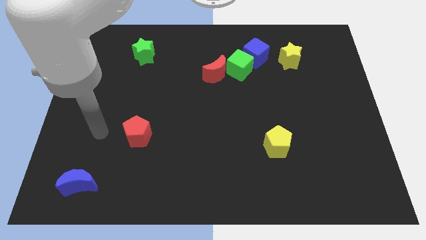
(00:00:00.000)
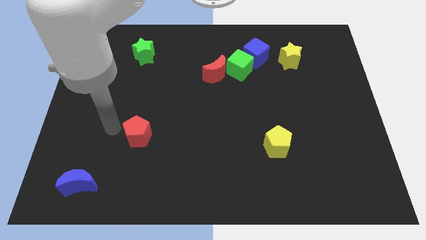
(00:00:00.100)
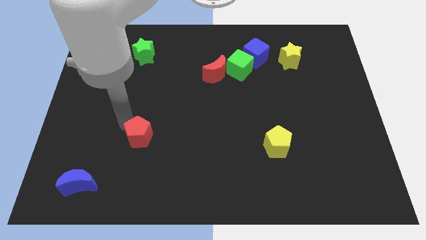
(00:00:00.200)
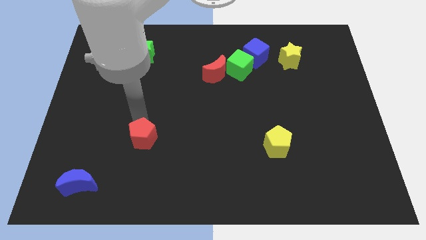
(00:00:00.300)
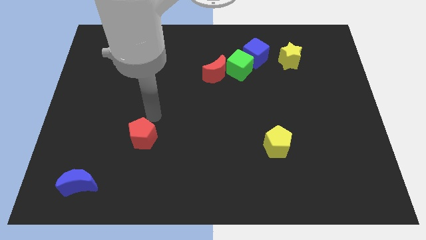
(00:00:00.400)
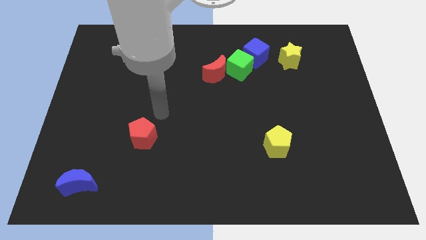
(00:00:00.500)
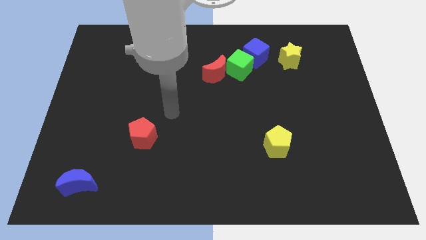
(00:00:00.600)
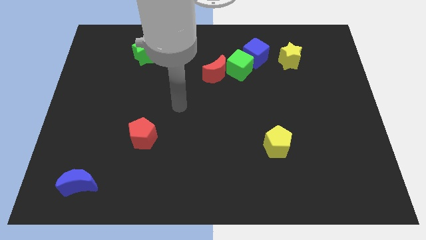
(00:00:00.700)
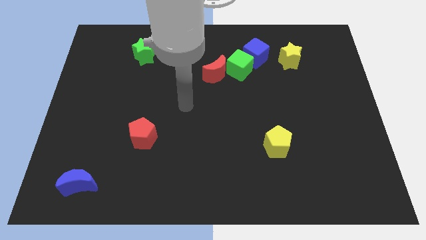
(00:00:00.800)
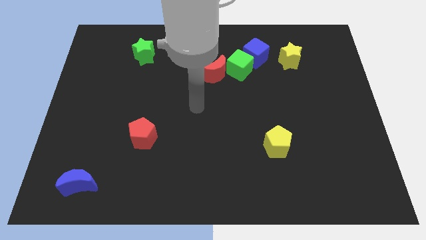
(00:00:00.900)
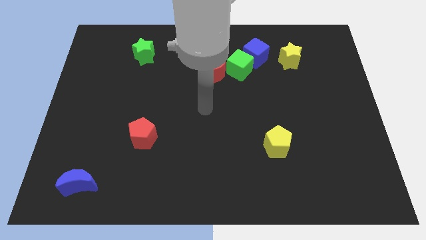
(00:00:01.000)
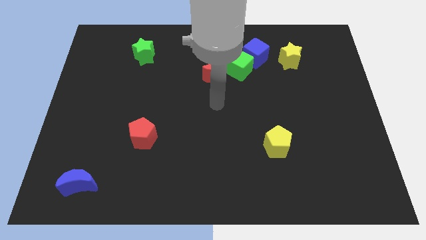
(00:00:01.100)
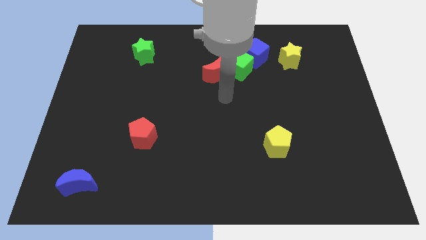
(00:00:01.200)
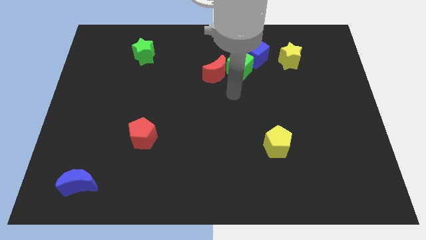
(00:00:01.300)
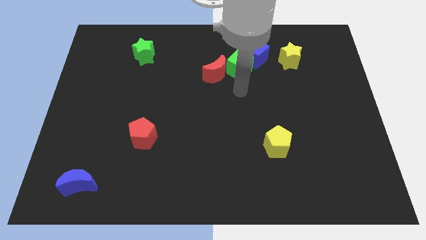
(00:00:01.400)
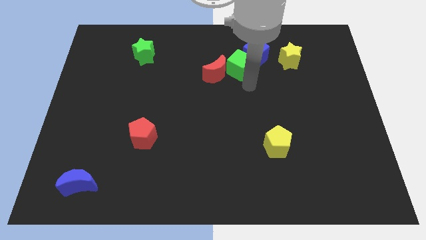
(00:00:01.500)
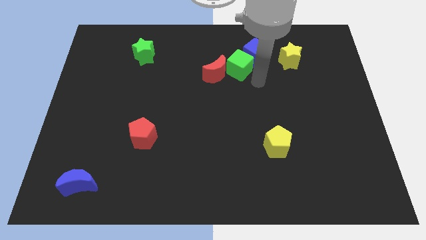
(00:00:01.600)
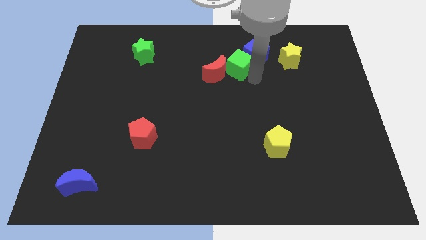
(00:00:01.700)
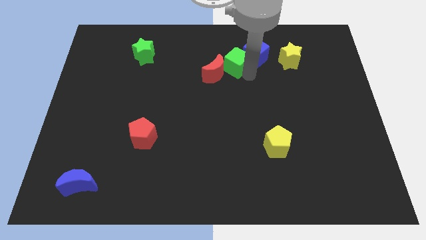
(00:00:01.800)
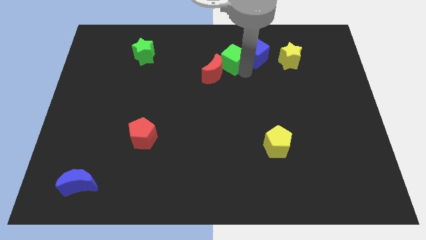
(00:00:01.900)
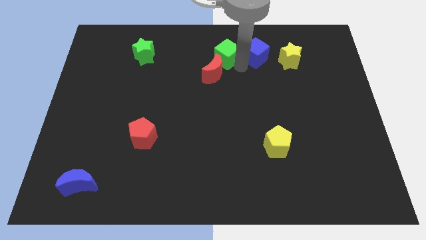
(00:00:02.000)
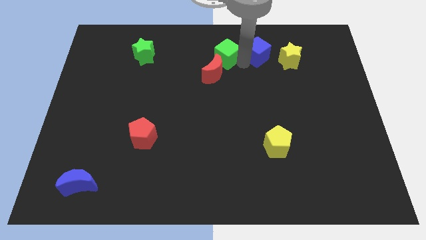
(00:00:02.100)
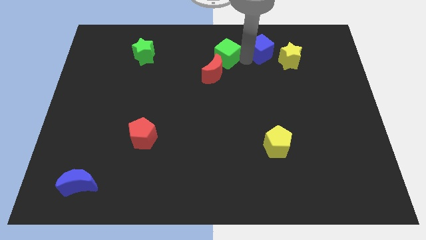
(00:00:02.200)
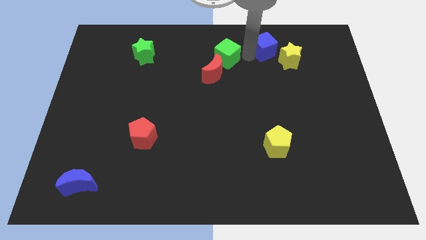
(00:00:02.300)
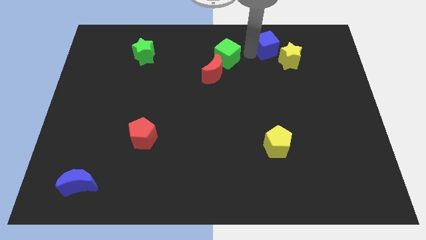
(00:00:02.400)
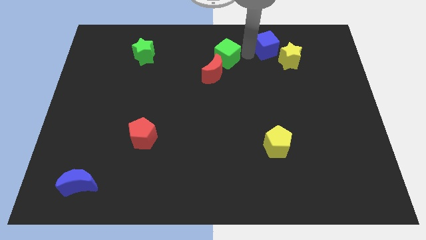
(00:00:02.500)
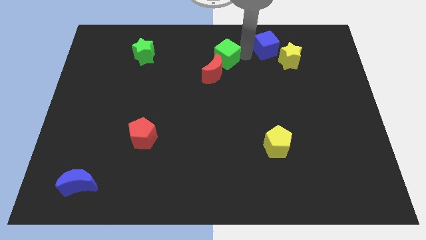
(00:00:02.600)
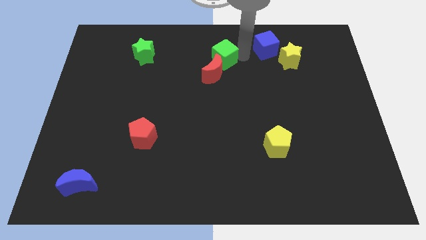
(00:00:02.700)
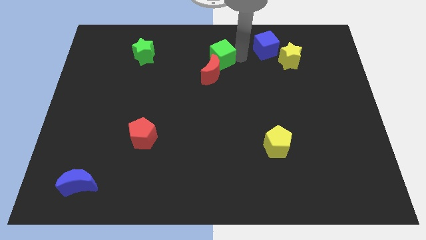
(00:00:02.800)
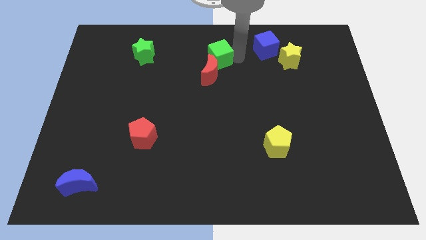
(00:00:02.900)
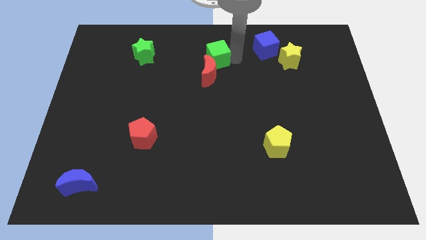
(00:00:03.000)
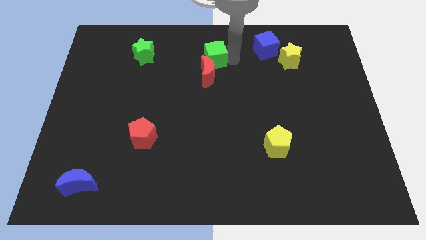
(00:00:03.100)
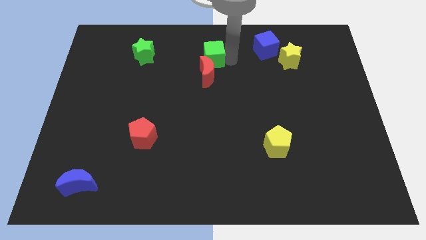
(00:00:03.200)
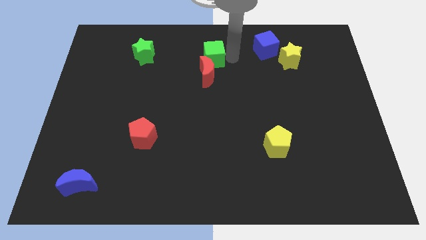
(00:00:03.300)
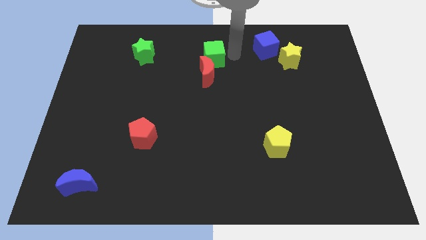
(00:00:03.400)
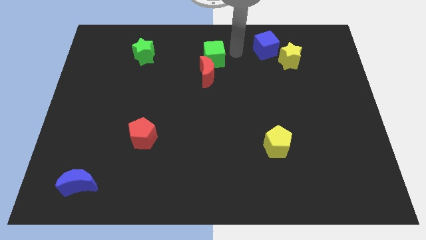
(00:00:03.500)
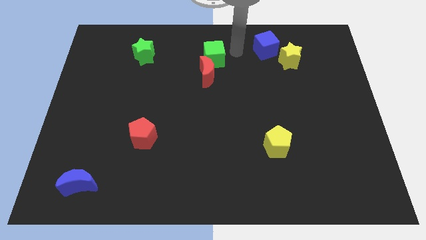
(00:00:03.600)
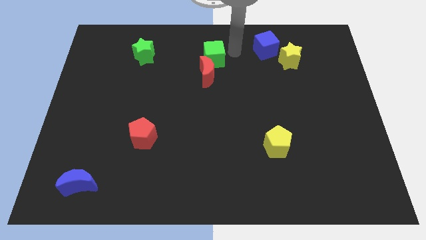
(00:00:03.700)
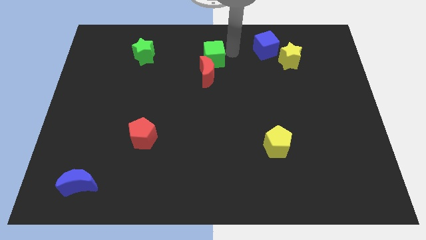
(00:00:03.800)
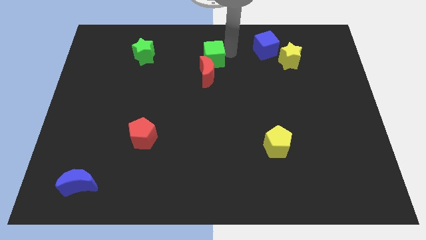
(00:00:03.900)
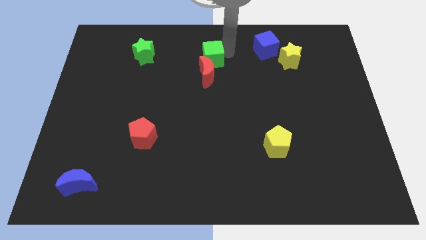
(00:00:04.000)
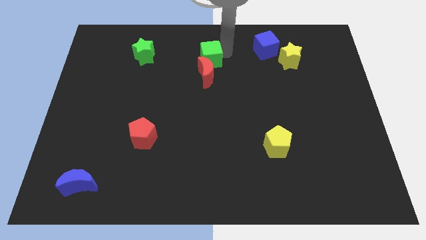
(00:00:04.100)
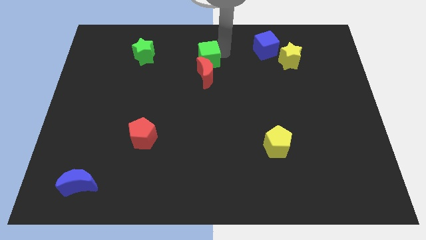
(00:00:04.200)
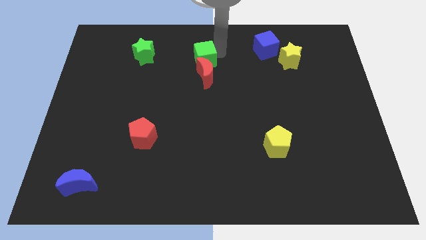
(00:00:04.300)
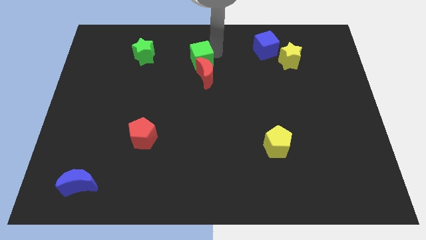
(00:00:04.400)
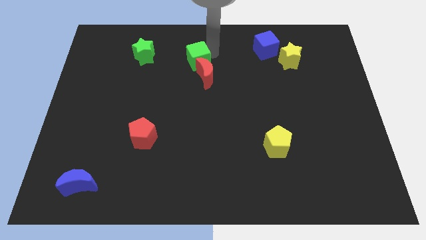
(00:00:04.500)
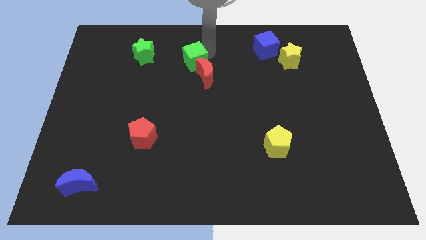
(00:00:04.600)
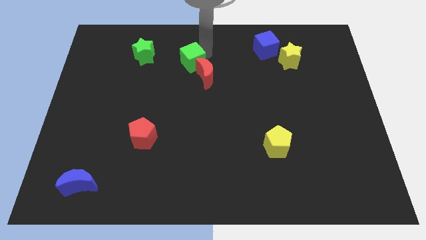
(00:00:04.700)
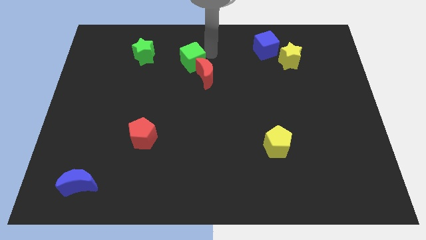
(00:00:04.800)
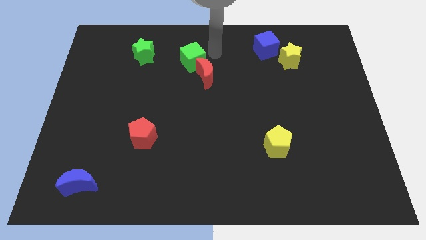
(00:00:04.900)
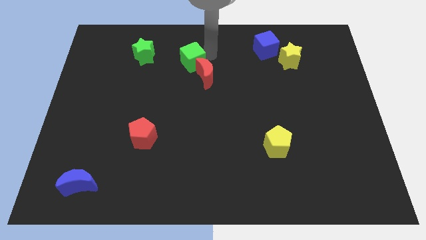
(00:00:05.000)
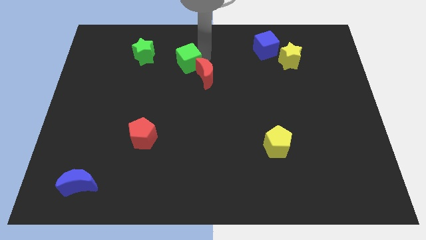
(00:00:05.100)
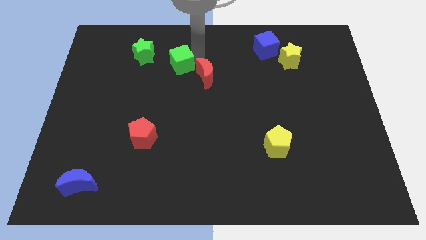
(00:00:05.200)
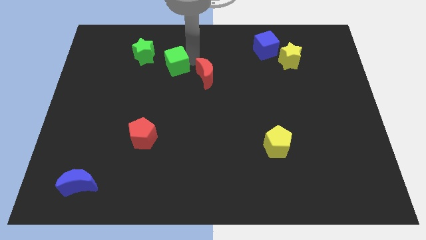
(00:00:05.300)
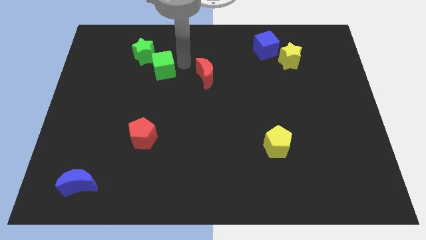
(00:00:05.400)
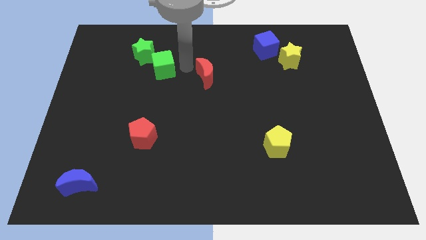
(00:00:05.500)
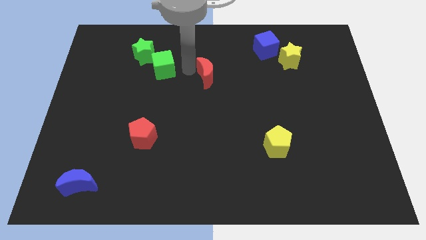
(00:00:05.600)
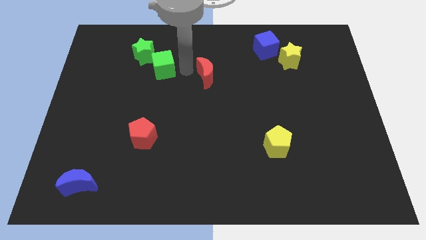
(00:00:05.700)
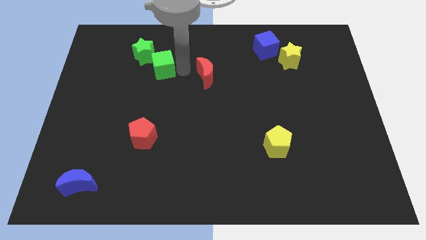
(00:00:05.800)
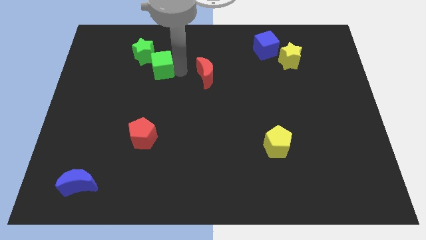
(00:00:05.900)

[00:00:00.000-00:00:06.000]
move the green cube left

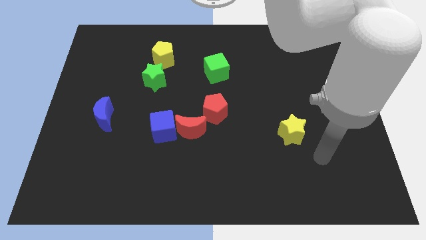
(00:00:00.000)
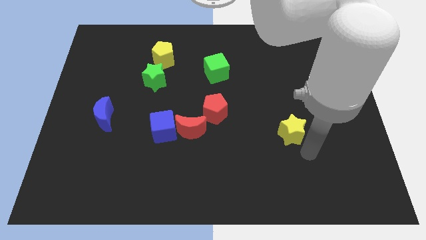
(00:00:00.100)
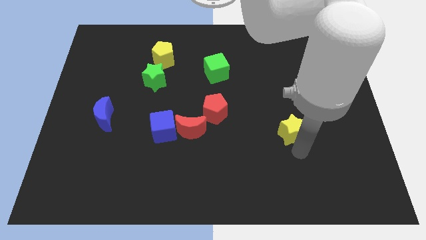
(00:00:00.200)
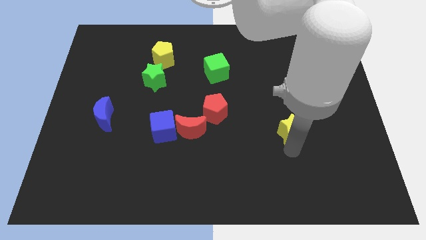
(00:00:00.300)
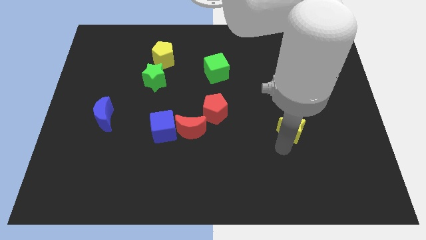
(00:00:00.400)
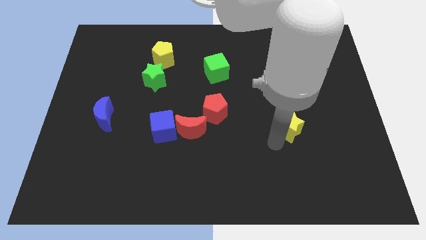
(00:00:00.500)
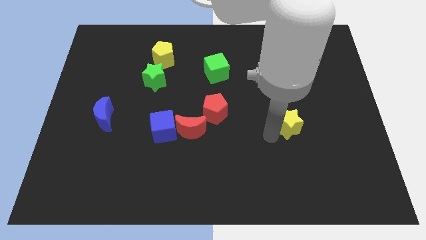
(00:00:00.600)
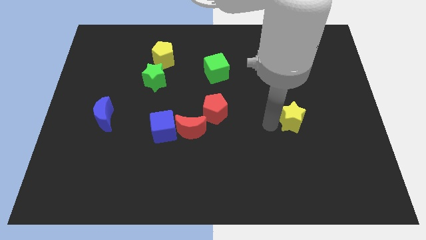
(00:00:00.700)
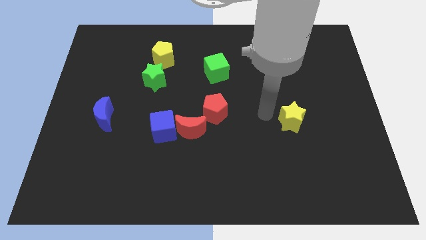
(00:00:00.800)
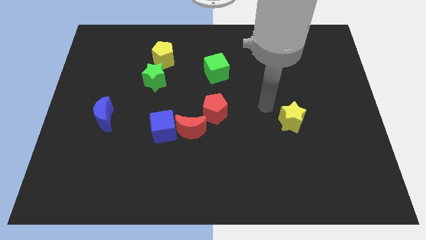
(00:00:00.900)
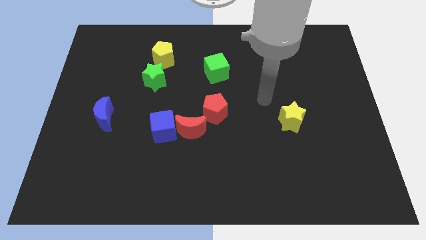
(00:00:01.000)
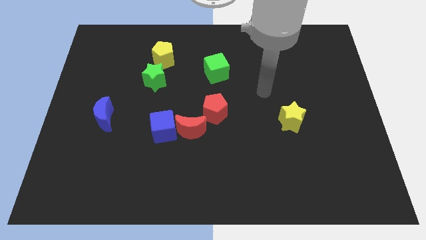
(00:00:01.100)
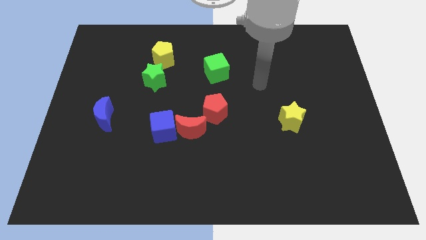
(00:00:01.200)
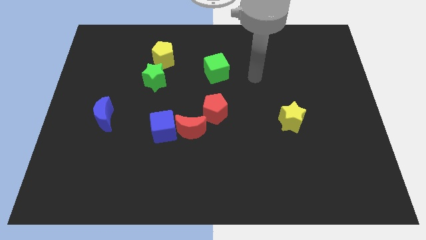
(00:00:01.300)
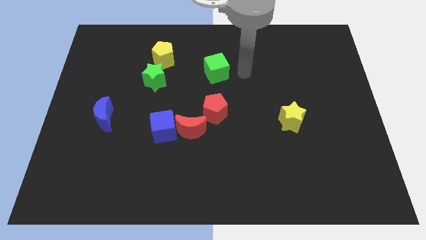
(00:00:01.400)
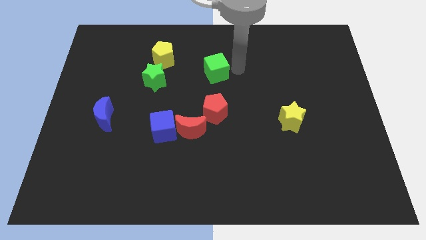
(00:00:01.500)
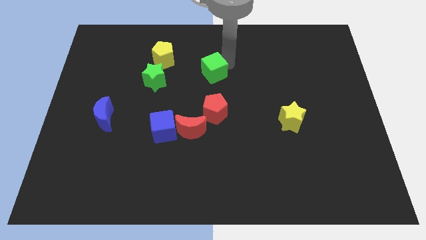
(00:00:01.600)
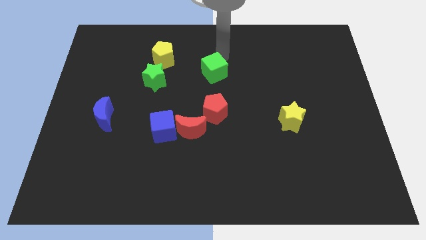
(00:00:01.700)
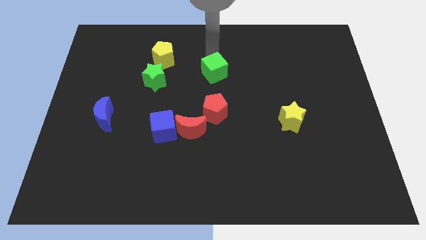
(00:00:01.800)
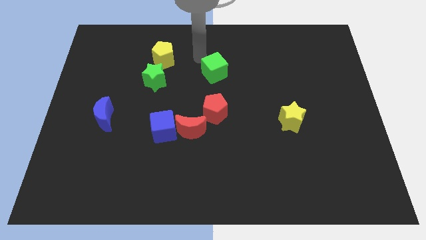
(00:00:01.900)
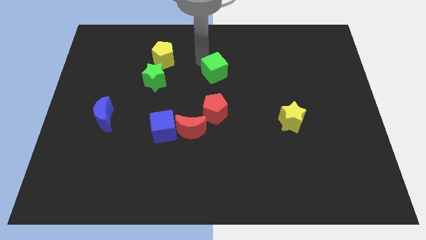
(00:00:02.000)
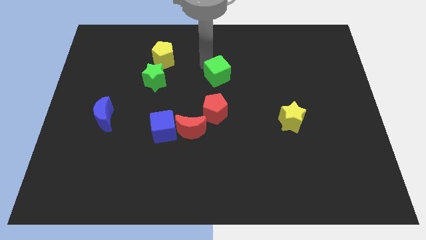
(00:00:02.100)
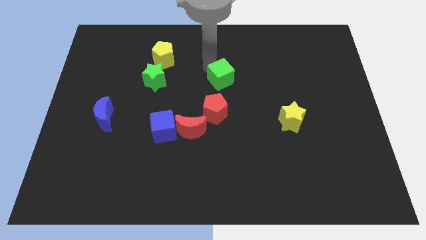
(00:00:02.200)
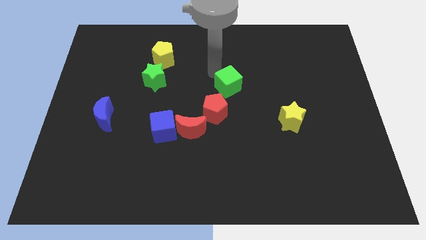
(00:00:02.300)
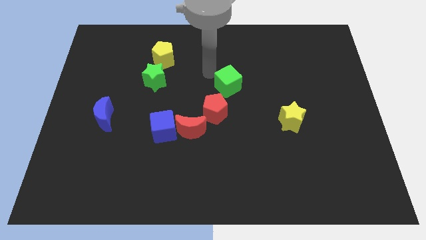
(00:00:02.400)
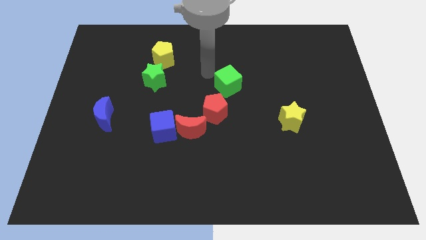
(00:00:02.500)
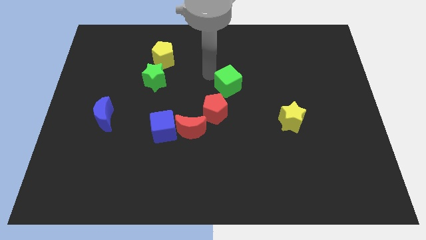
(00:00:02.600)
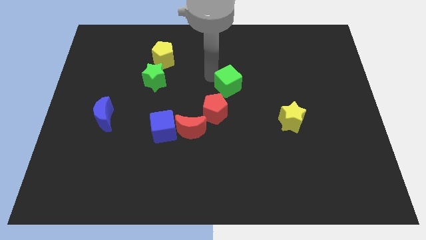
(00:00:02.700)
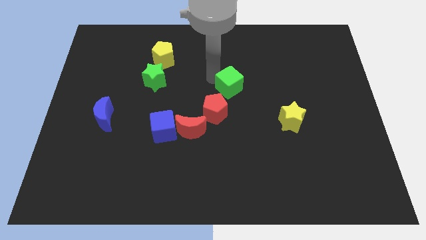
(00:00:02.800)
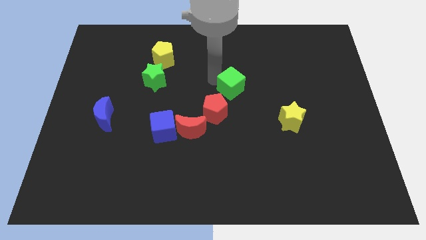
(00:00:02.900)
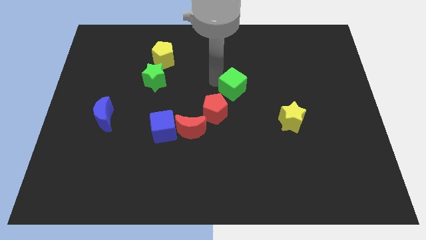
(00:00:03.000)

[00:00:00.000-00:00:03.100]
push the green cube a little downwards and right
